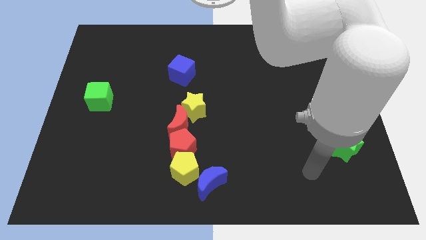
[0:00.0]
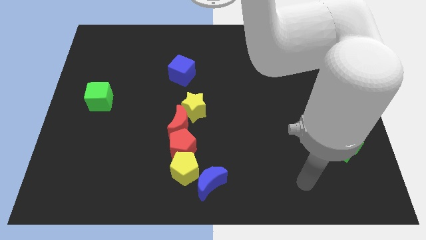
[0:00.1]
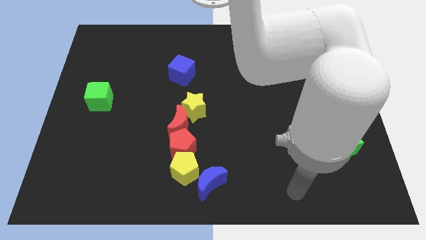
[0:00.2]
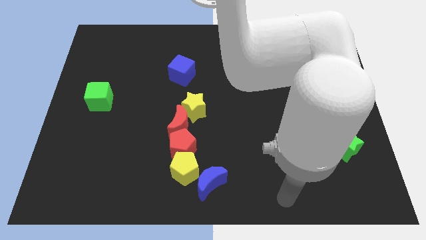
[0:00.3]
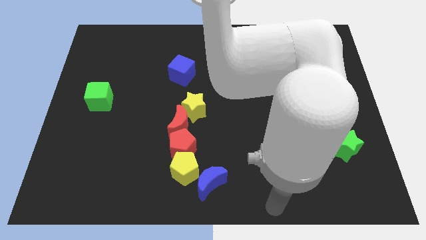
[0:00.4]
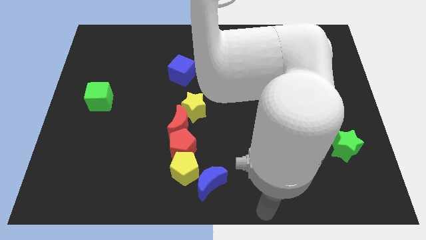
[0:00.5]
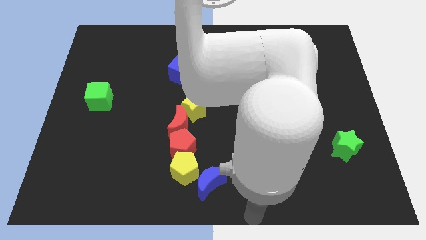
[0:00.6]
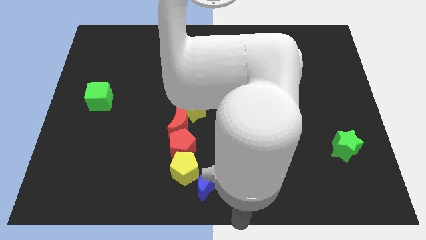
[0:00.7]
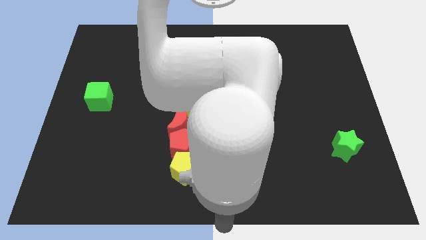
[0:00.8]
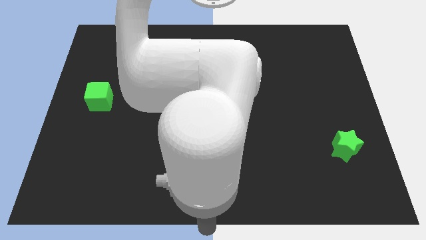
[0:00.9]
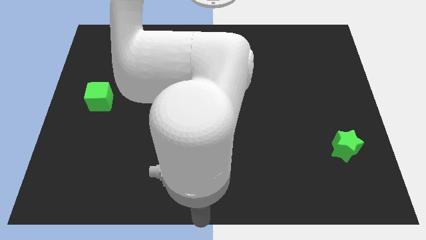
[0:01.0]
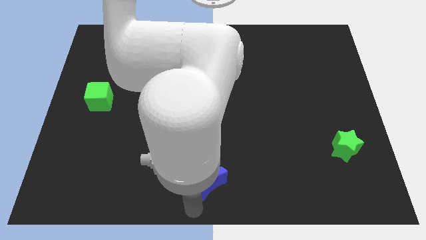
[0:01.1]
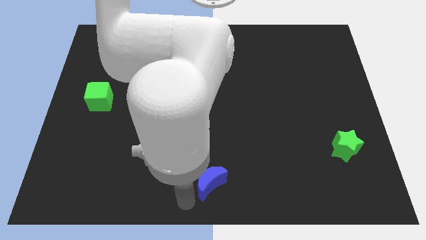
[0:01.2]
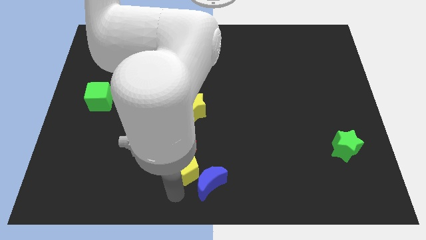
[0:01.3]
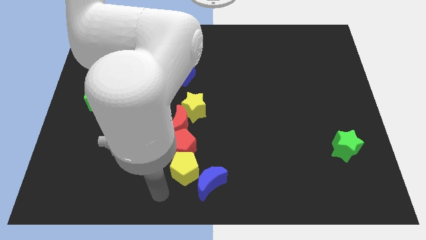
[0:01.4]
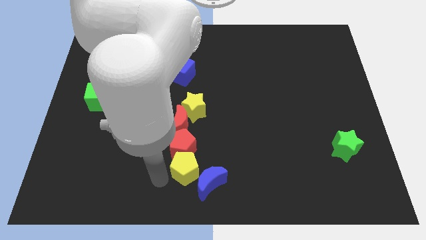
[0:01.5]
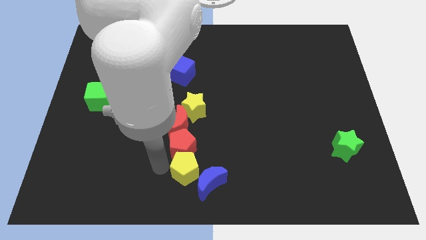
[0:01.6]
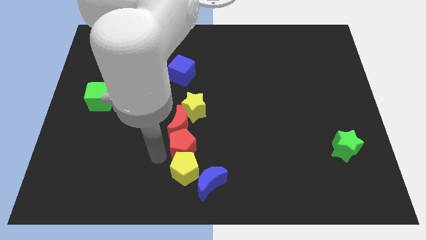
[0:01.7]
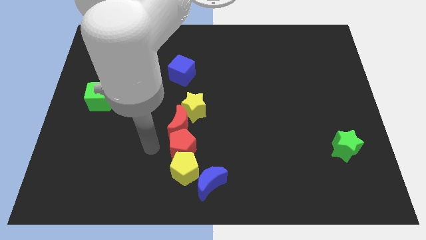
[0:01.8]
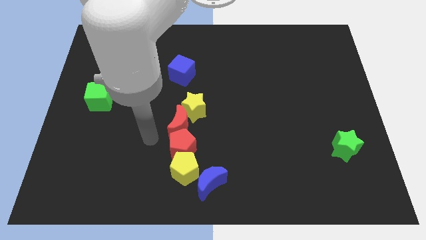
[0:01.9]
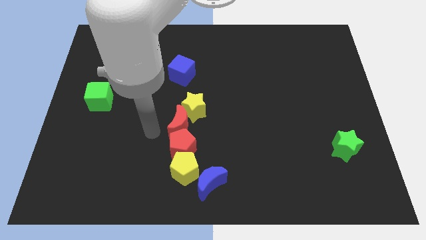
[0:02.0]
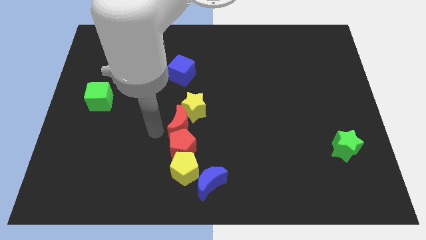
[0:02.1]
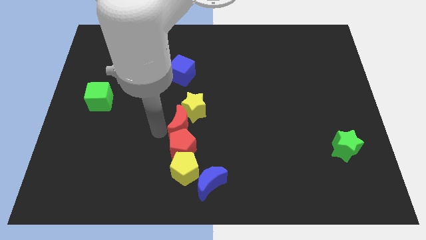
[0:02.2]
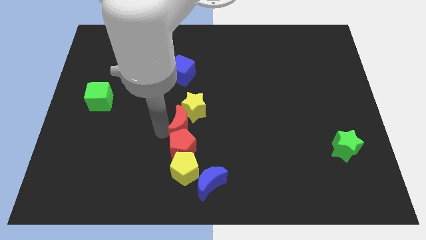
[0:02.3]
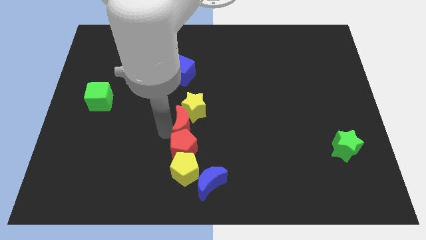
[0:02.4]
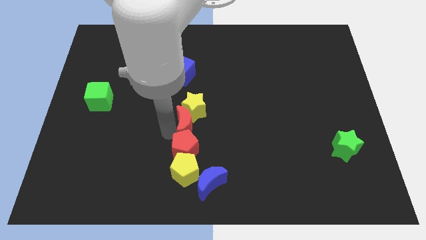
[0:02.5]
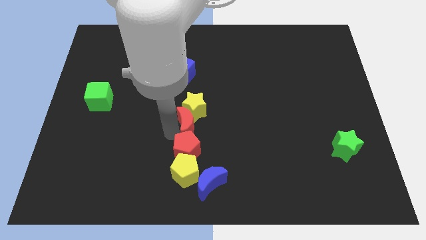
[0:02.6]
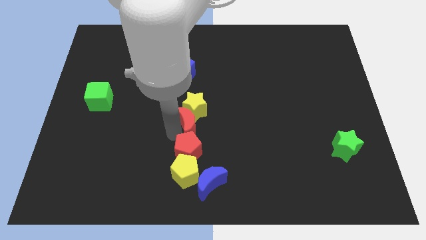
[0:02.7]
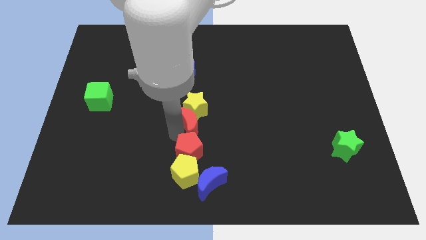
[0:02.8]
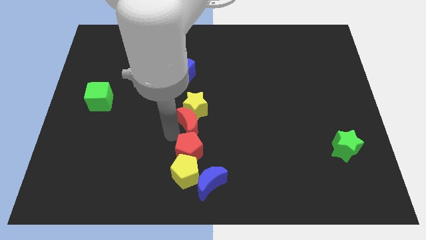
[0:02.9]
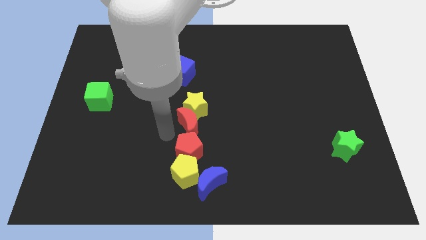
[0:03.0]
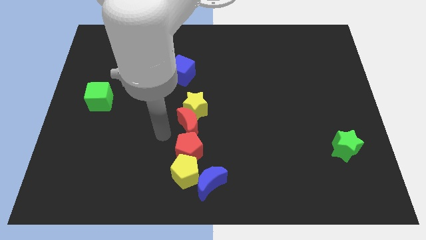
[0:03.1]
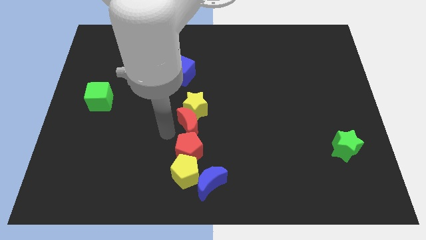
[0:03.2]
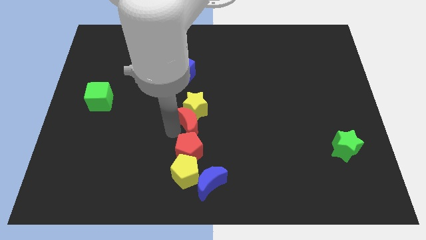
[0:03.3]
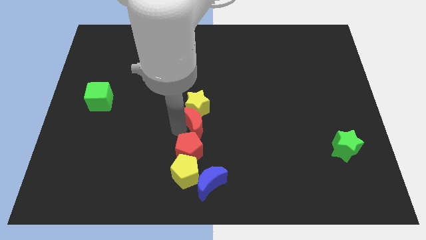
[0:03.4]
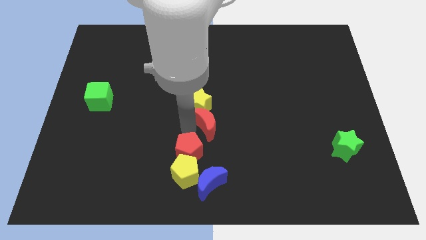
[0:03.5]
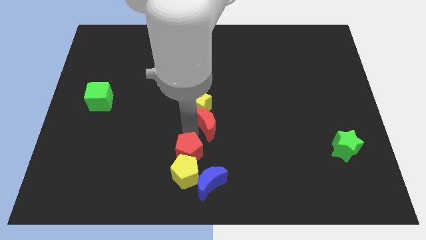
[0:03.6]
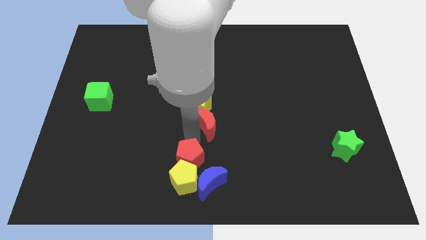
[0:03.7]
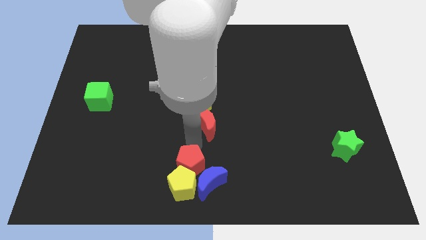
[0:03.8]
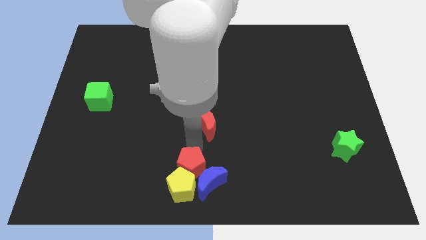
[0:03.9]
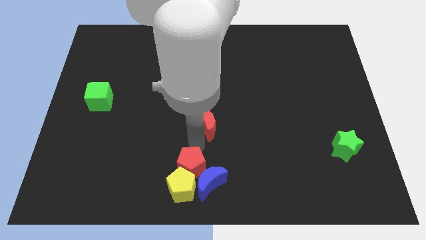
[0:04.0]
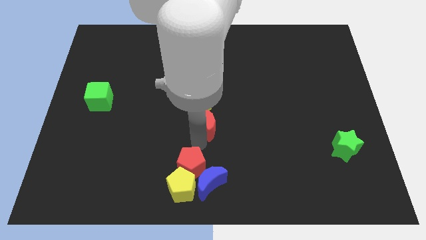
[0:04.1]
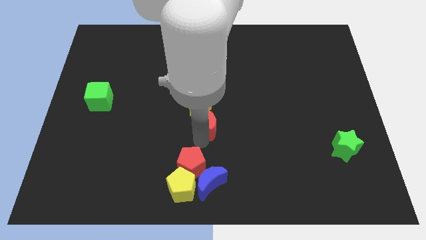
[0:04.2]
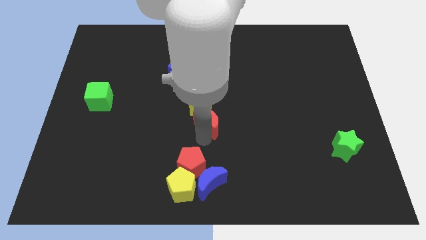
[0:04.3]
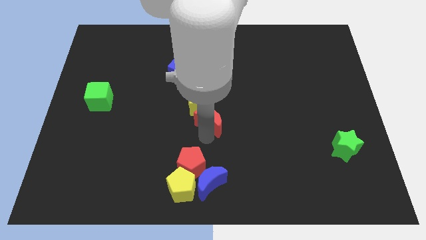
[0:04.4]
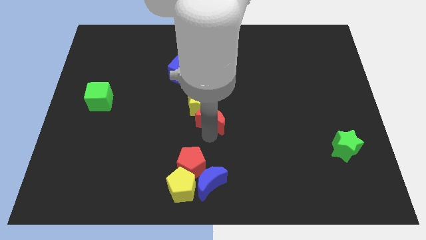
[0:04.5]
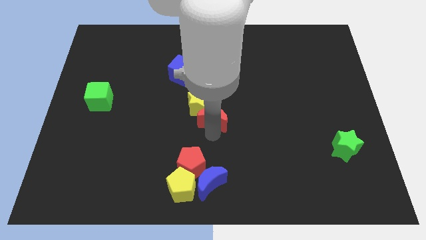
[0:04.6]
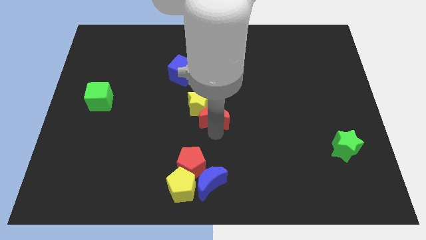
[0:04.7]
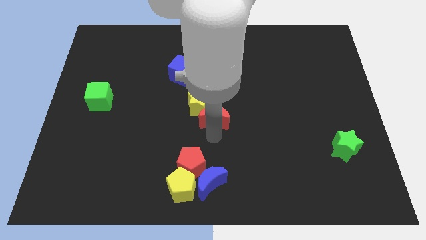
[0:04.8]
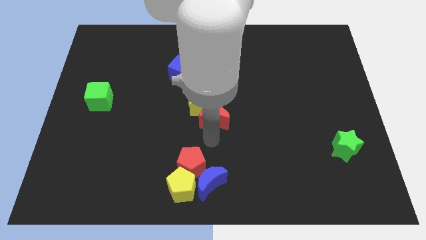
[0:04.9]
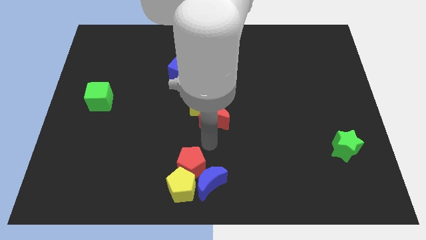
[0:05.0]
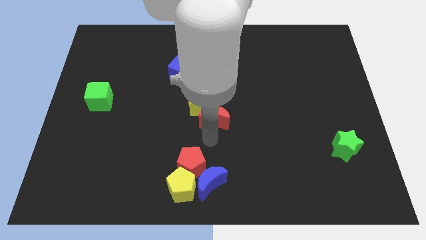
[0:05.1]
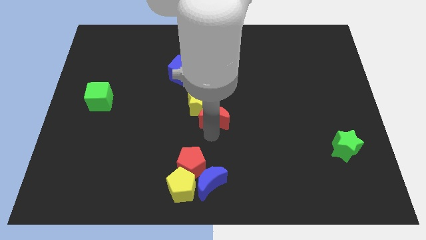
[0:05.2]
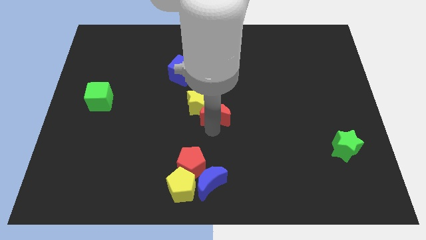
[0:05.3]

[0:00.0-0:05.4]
slightly move the red moon diagonally upwards and to the right

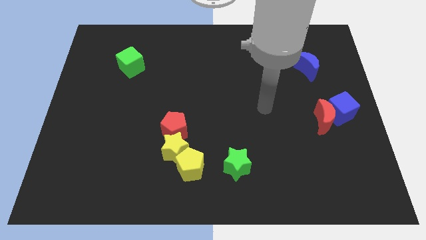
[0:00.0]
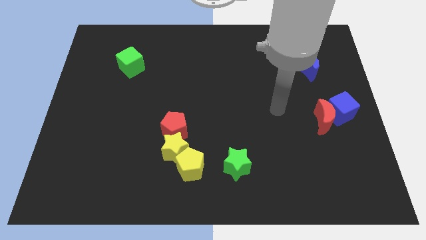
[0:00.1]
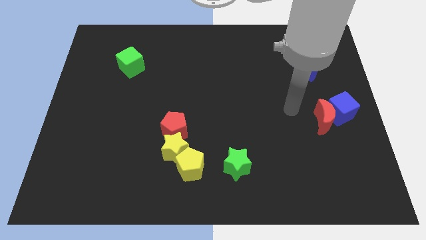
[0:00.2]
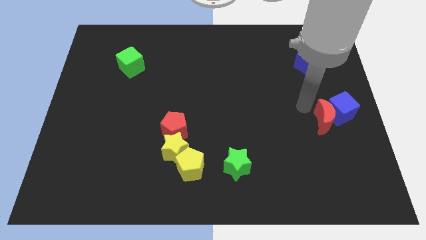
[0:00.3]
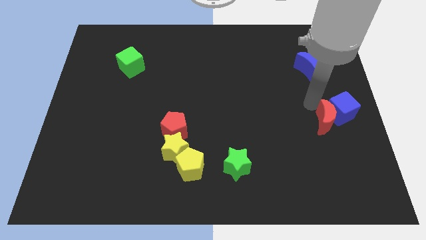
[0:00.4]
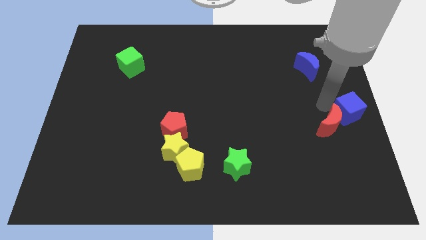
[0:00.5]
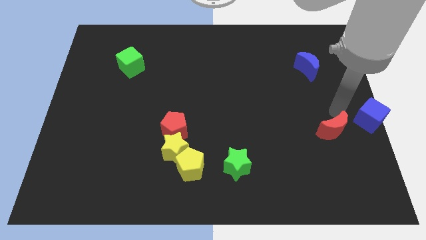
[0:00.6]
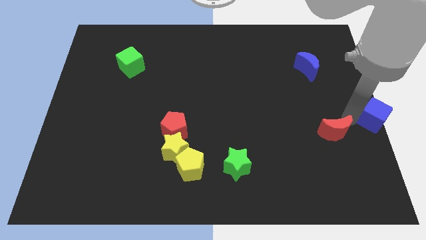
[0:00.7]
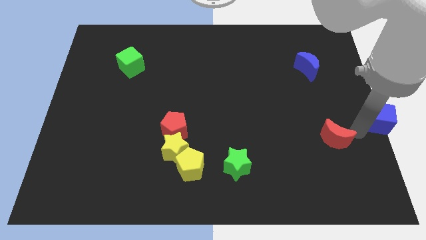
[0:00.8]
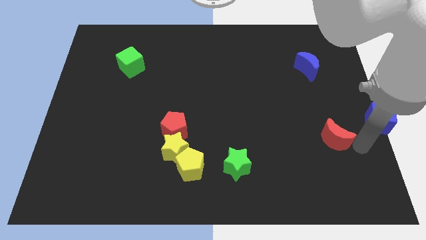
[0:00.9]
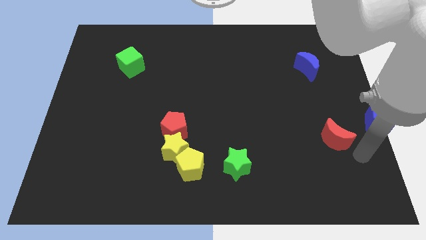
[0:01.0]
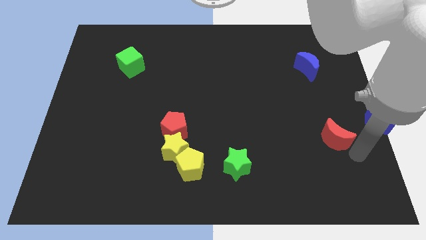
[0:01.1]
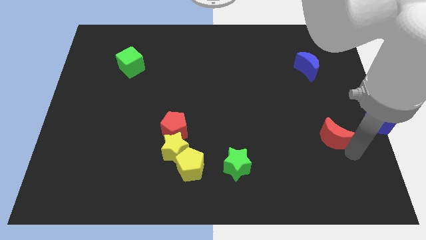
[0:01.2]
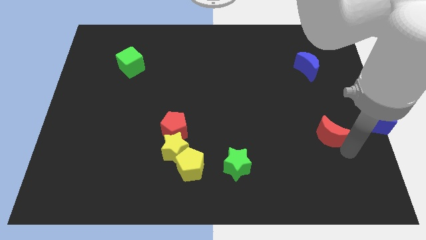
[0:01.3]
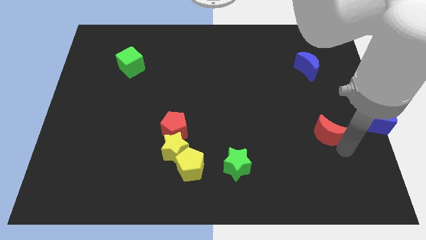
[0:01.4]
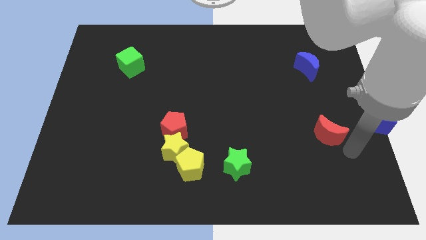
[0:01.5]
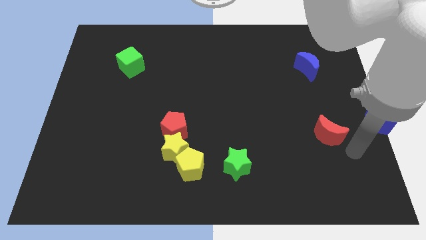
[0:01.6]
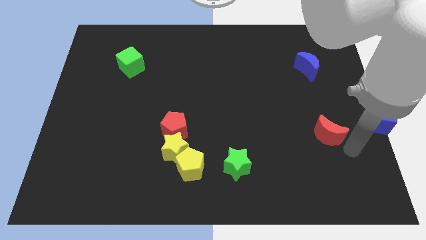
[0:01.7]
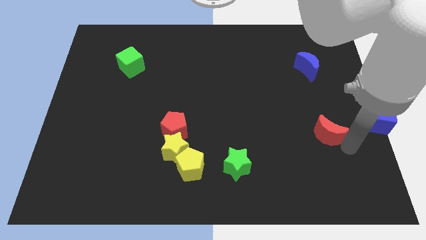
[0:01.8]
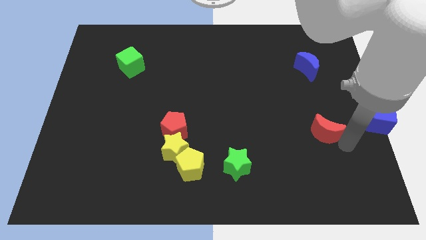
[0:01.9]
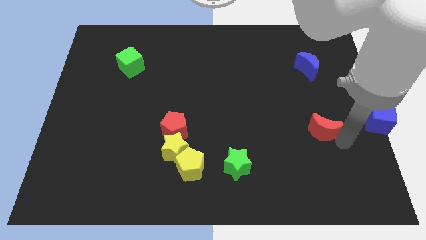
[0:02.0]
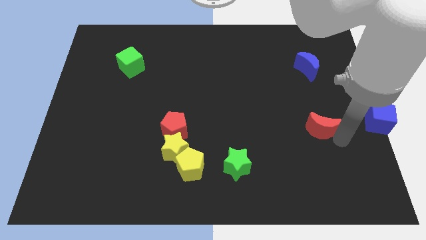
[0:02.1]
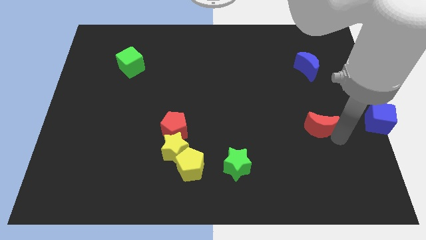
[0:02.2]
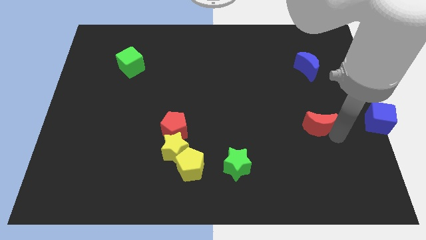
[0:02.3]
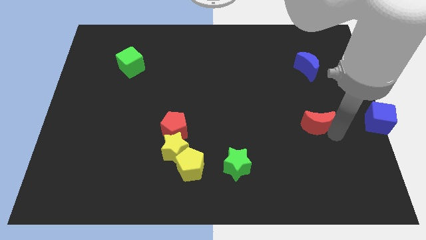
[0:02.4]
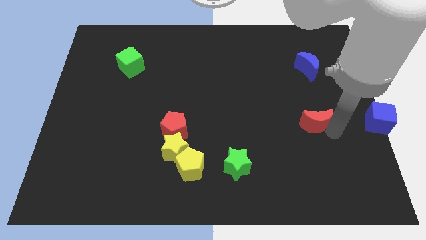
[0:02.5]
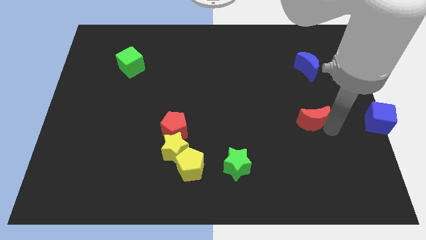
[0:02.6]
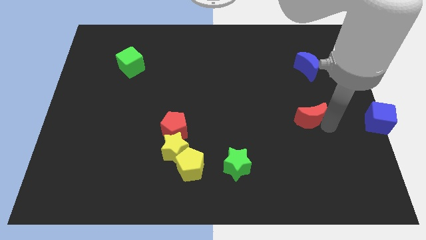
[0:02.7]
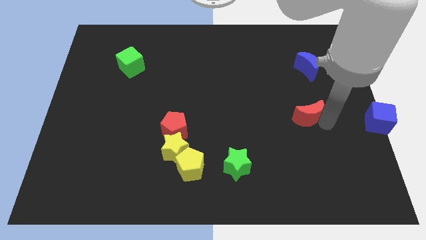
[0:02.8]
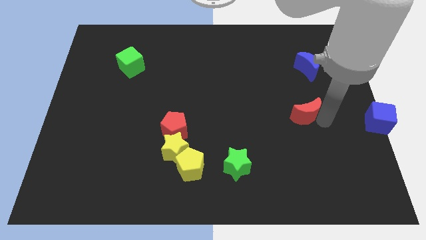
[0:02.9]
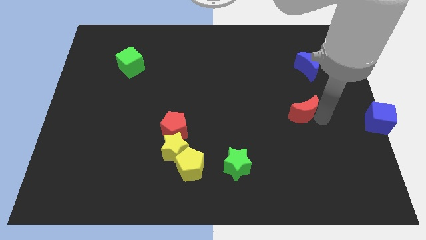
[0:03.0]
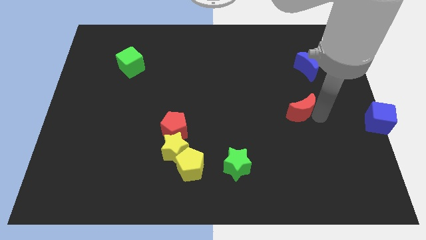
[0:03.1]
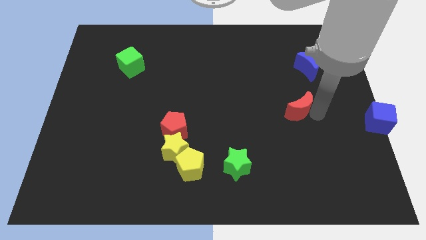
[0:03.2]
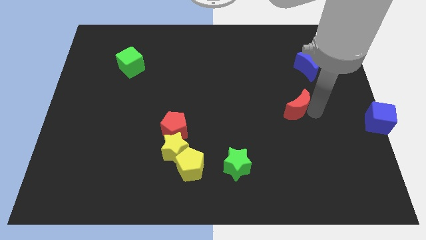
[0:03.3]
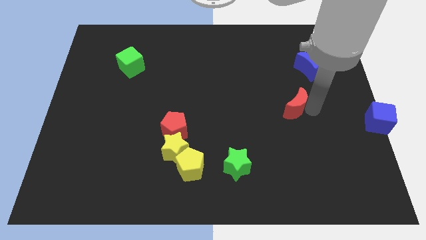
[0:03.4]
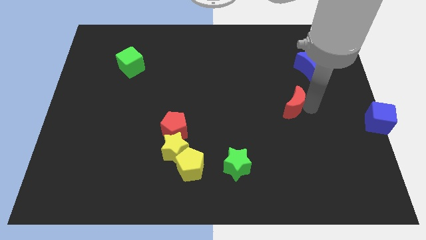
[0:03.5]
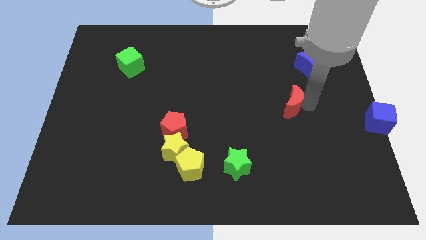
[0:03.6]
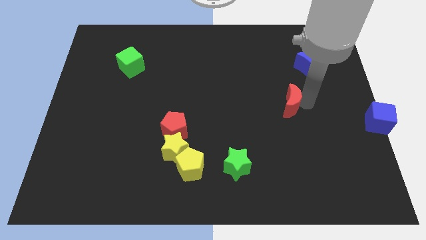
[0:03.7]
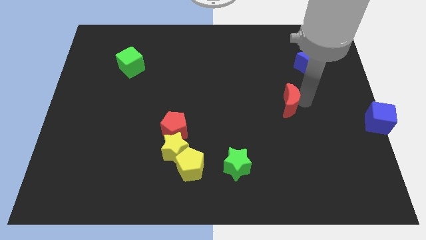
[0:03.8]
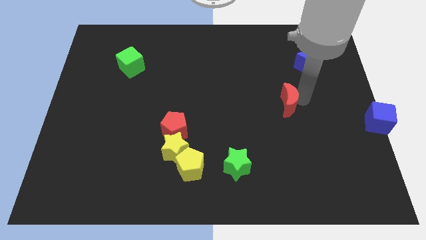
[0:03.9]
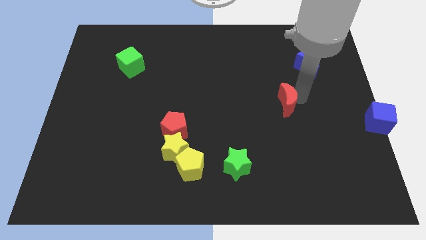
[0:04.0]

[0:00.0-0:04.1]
slide the red moon a little to the left
